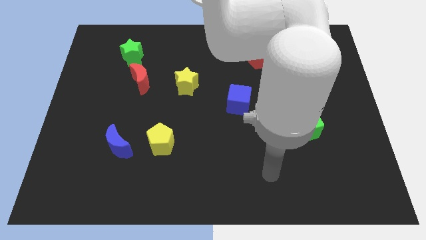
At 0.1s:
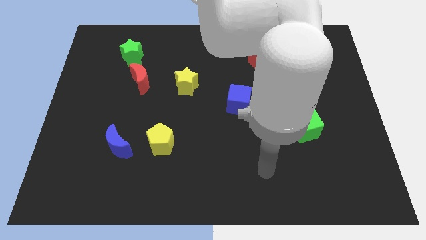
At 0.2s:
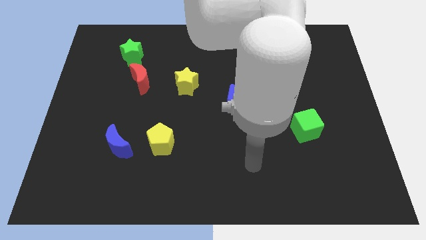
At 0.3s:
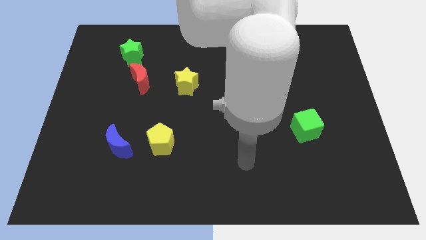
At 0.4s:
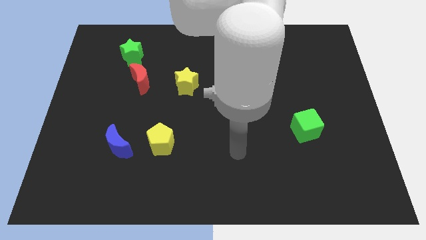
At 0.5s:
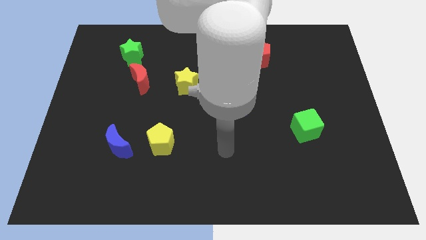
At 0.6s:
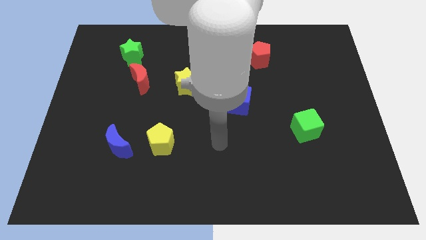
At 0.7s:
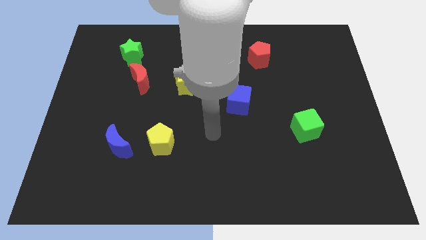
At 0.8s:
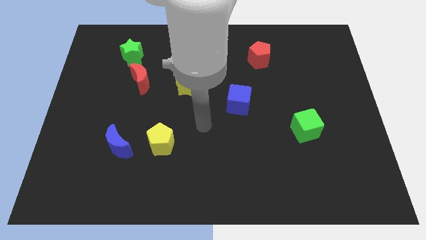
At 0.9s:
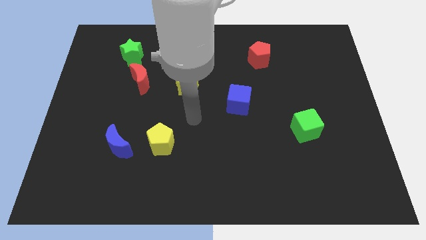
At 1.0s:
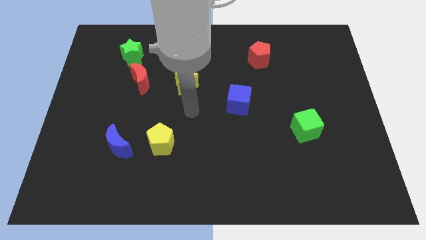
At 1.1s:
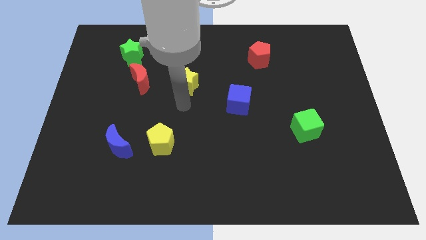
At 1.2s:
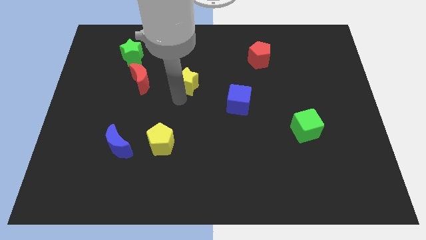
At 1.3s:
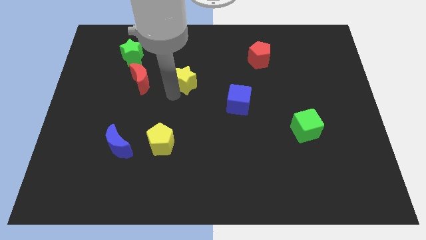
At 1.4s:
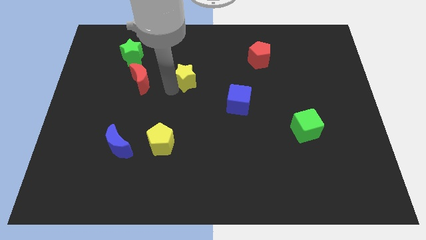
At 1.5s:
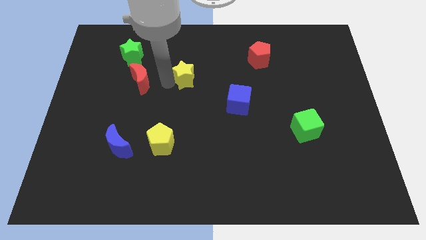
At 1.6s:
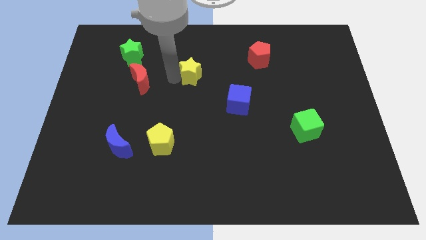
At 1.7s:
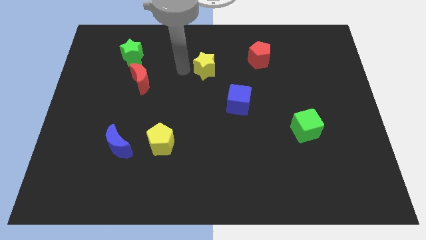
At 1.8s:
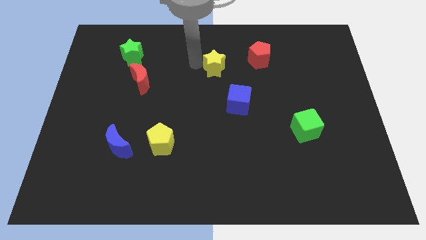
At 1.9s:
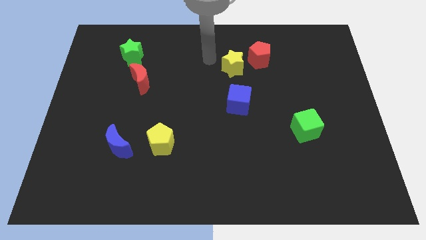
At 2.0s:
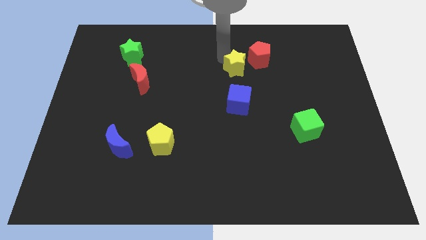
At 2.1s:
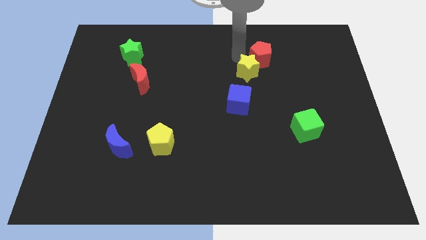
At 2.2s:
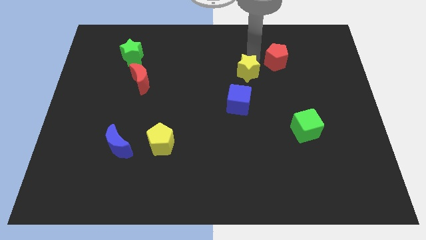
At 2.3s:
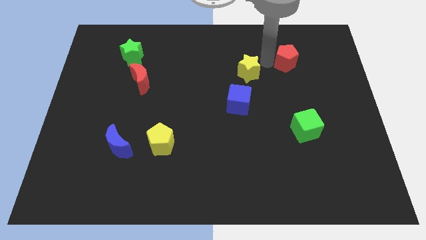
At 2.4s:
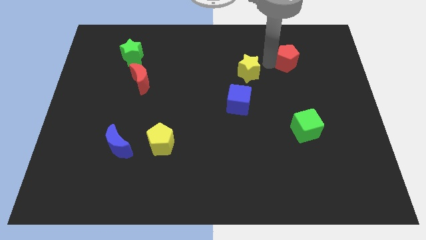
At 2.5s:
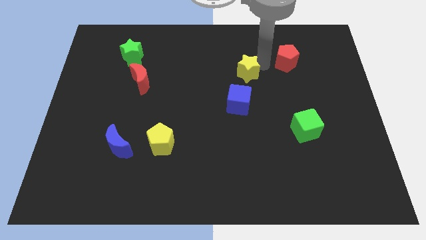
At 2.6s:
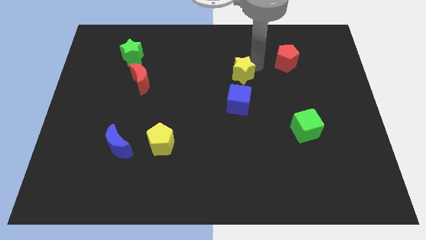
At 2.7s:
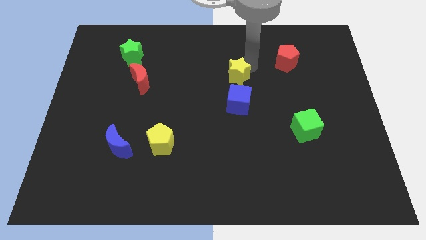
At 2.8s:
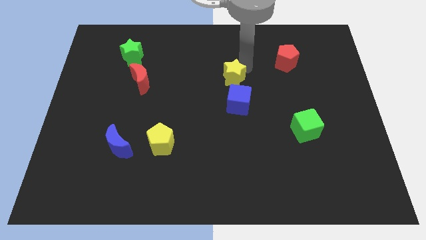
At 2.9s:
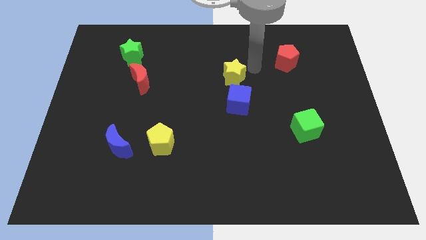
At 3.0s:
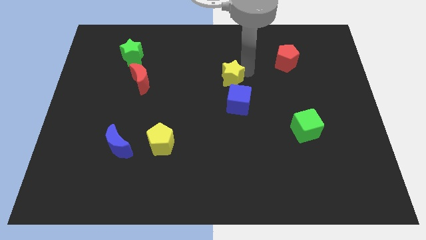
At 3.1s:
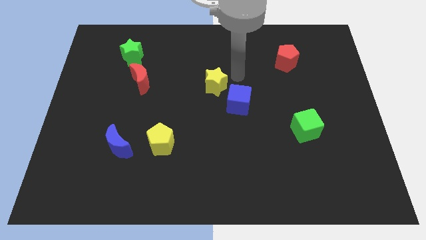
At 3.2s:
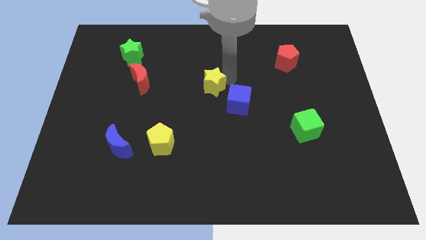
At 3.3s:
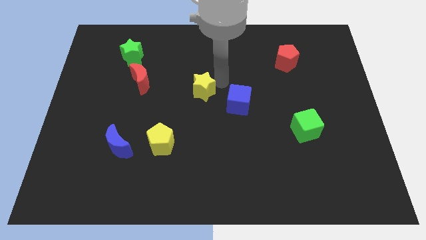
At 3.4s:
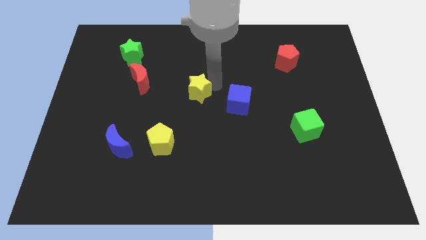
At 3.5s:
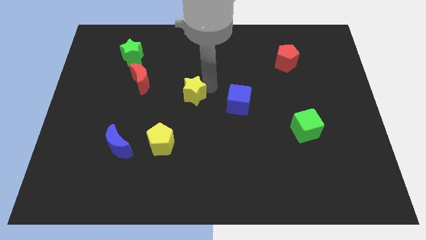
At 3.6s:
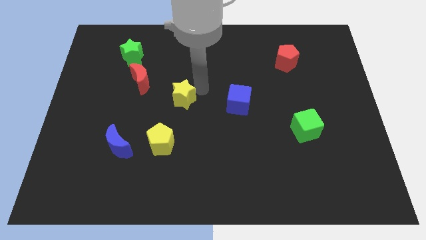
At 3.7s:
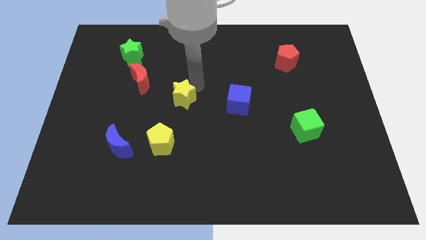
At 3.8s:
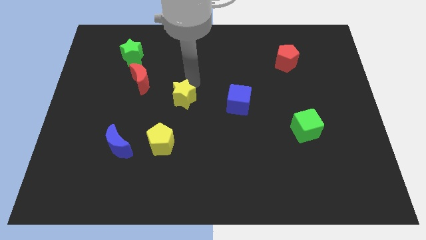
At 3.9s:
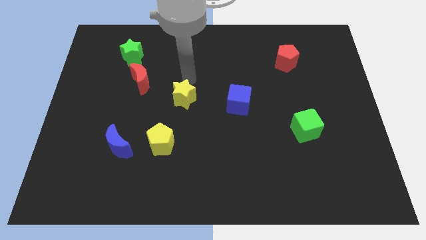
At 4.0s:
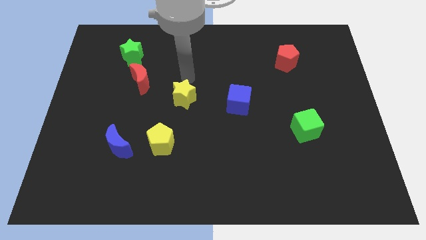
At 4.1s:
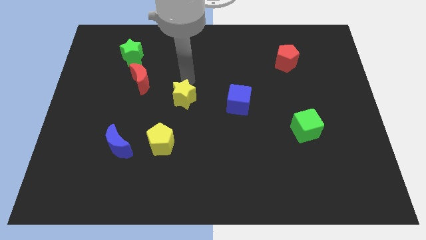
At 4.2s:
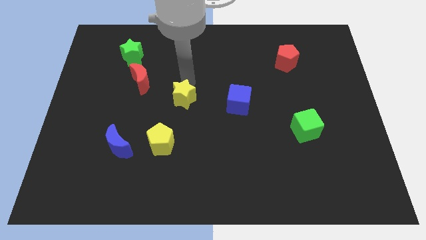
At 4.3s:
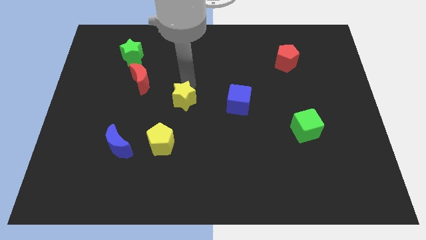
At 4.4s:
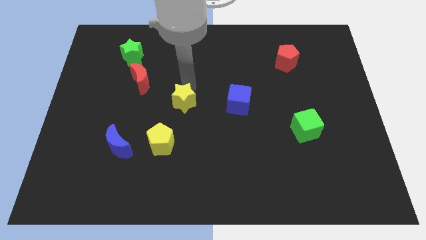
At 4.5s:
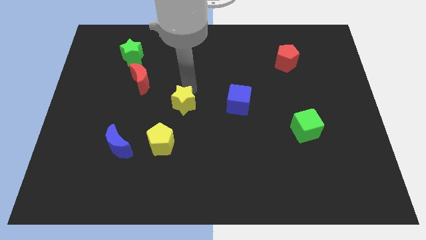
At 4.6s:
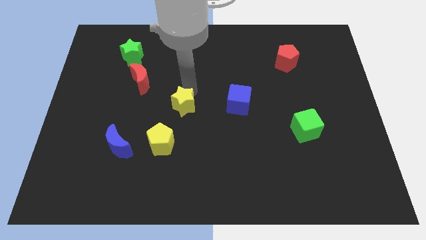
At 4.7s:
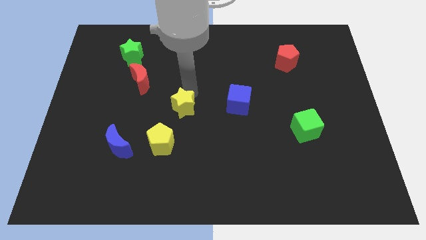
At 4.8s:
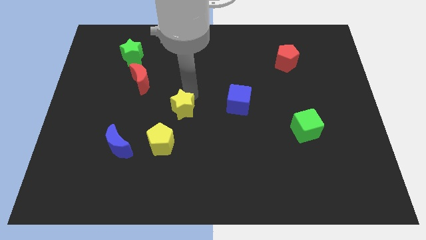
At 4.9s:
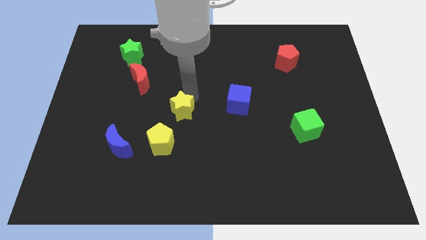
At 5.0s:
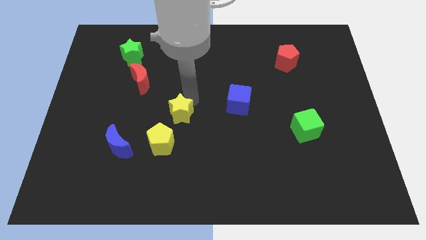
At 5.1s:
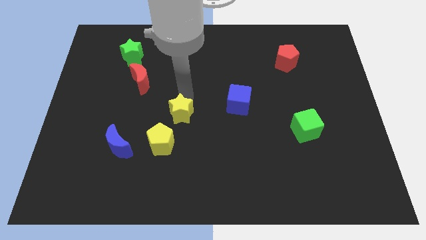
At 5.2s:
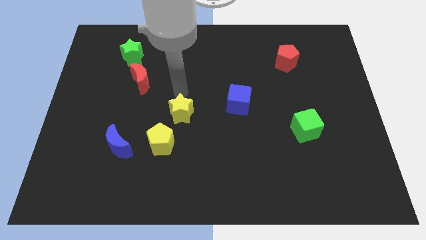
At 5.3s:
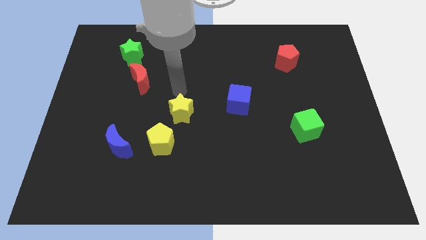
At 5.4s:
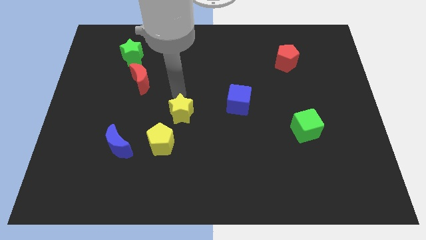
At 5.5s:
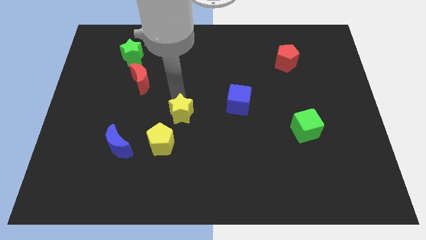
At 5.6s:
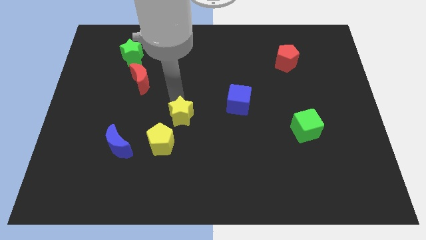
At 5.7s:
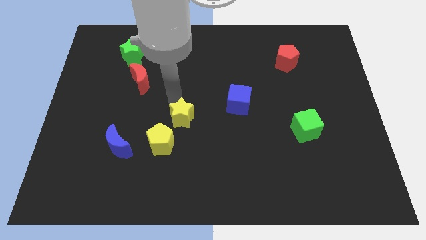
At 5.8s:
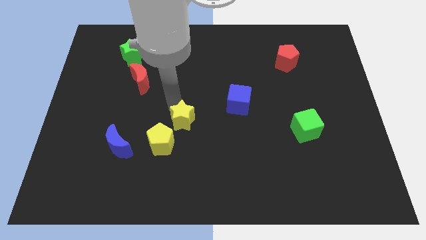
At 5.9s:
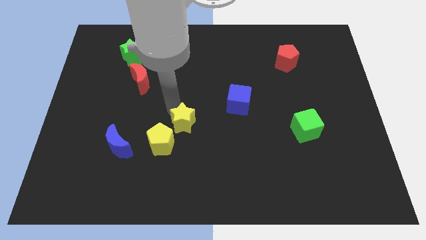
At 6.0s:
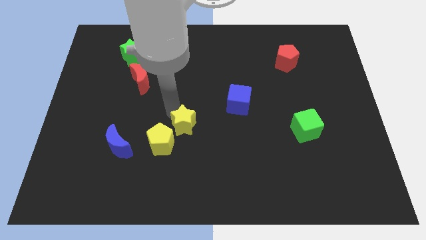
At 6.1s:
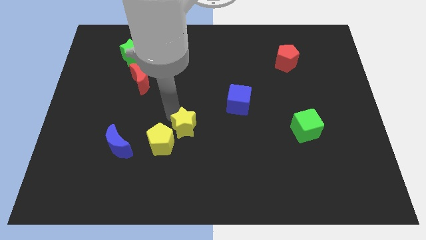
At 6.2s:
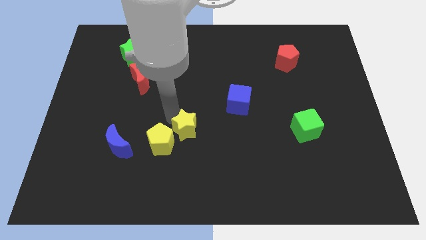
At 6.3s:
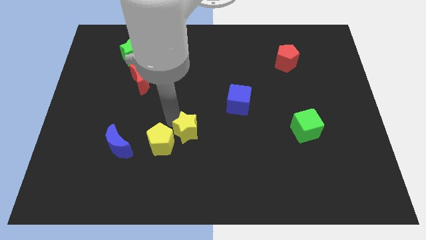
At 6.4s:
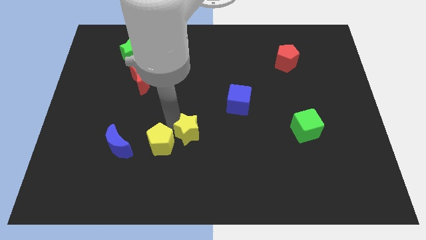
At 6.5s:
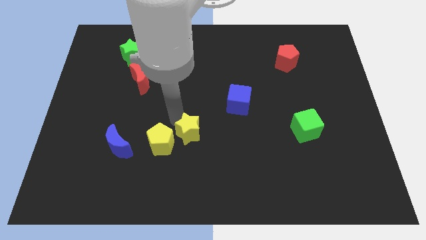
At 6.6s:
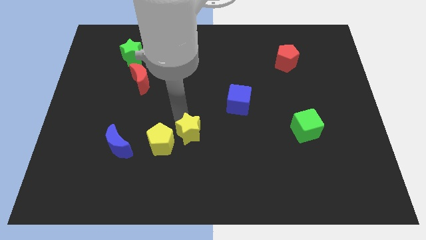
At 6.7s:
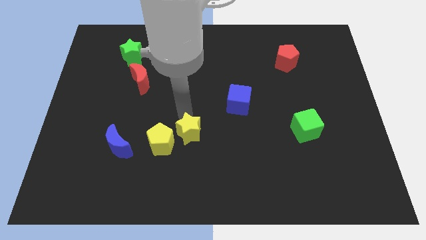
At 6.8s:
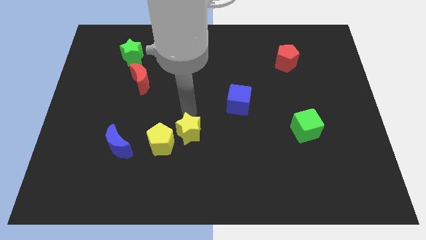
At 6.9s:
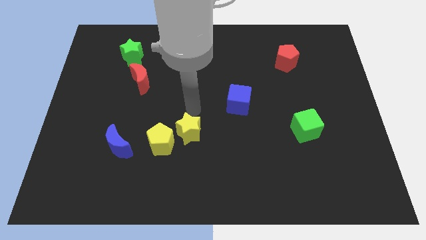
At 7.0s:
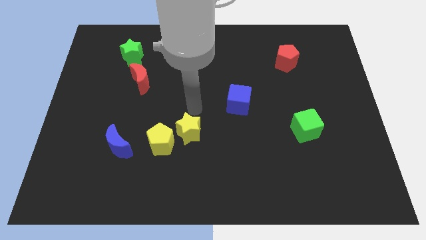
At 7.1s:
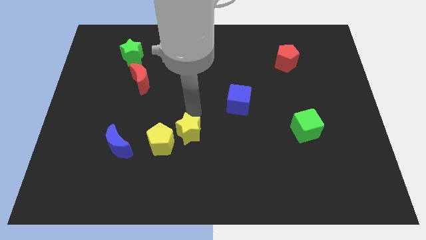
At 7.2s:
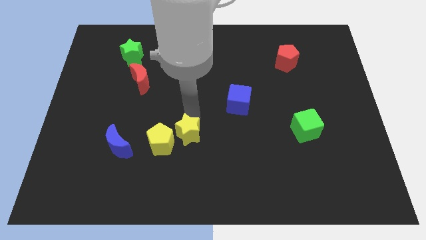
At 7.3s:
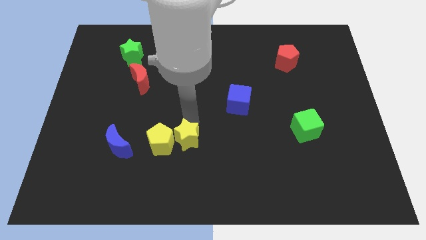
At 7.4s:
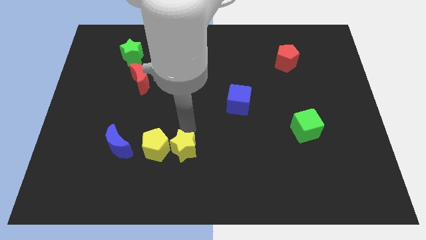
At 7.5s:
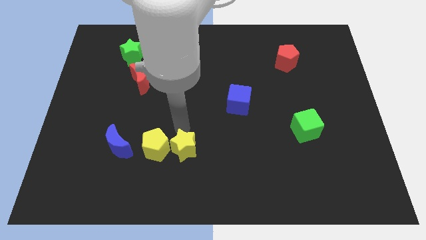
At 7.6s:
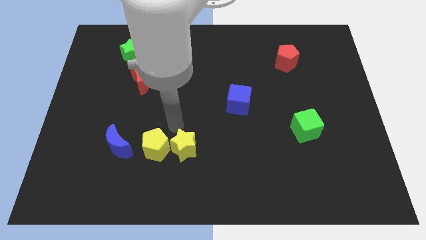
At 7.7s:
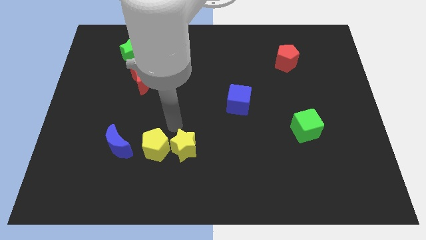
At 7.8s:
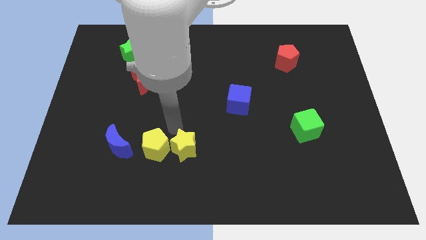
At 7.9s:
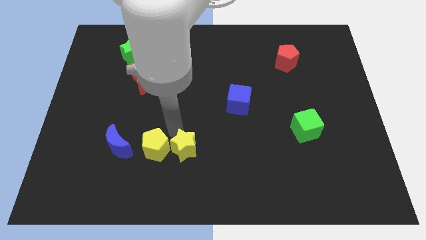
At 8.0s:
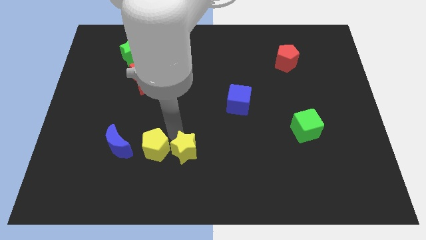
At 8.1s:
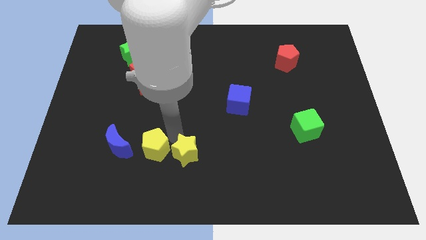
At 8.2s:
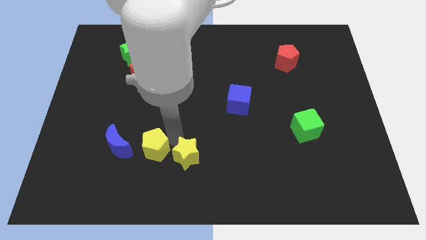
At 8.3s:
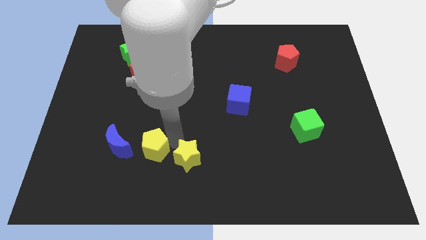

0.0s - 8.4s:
move the yellow star to the bottom side
